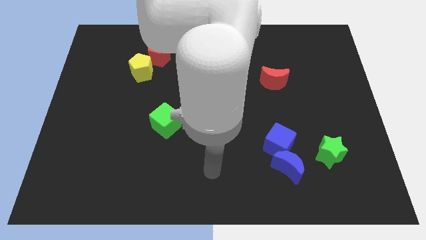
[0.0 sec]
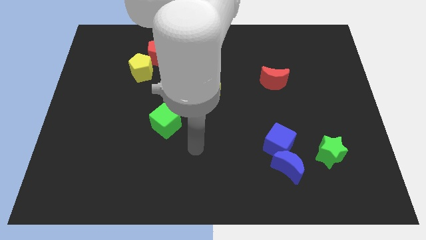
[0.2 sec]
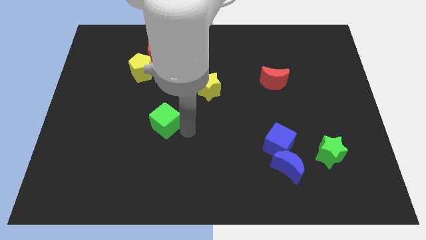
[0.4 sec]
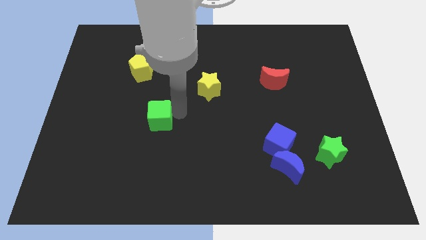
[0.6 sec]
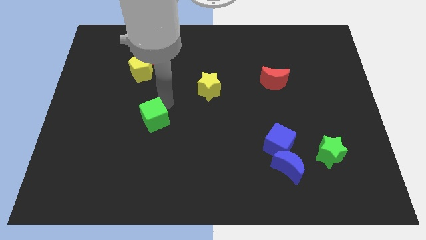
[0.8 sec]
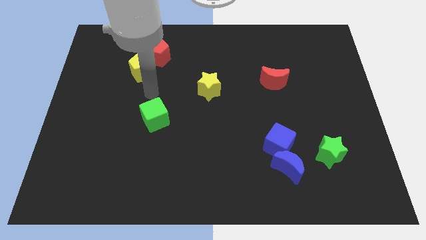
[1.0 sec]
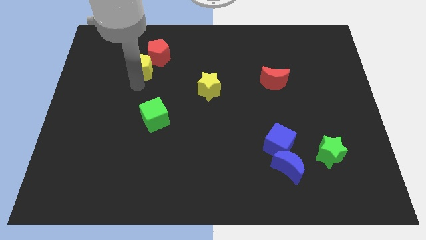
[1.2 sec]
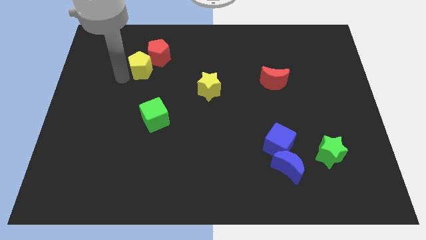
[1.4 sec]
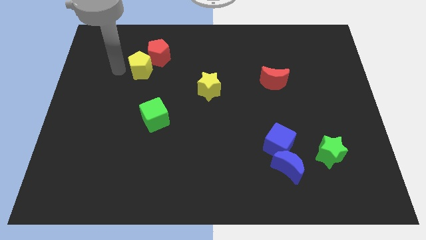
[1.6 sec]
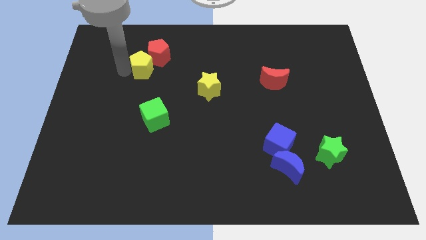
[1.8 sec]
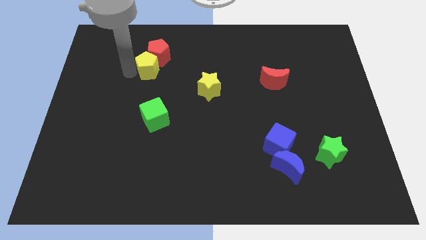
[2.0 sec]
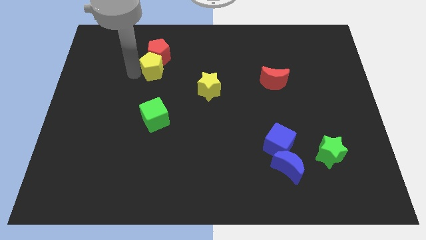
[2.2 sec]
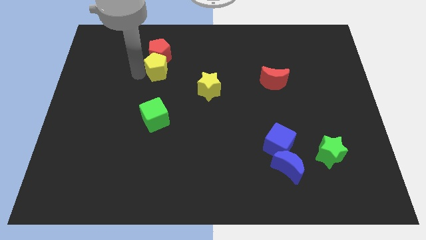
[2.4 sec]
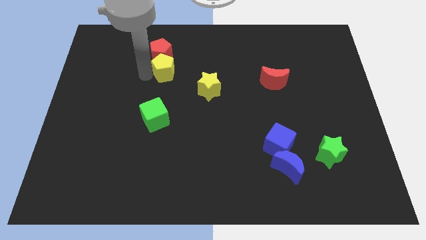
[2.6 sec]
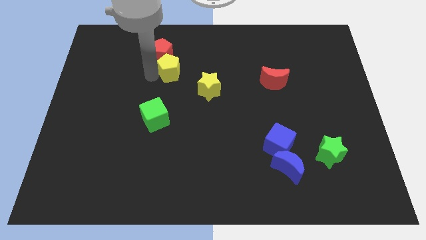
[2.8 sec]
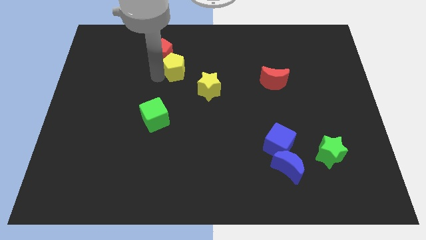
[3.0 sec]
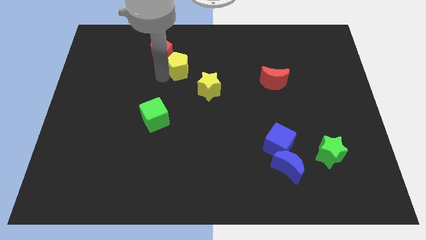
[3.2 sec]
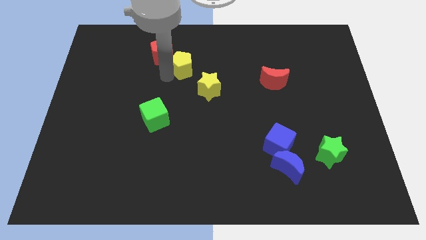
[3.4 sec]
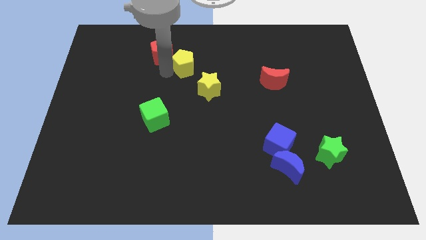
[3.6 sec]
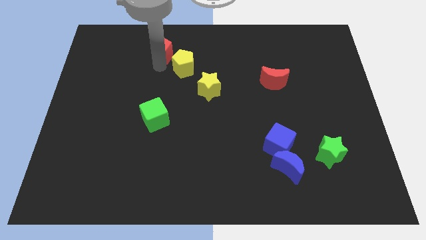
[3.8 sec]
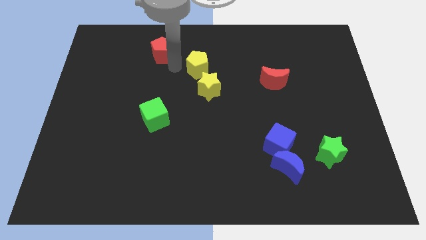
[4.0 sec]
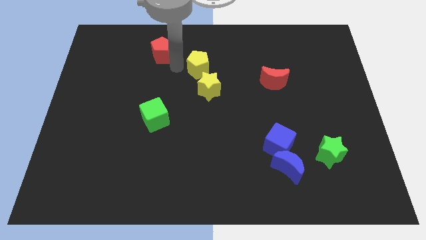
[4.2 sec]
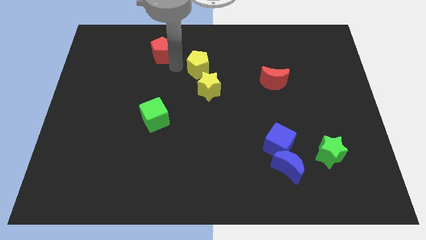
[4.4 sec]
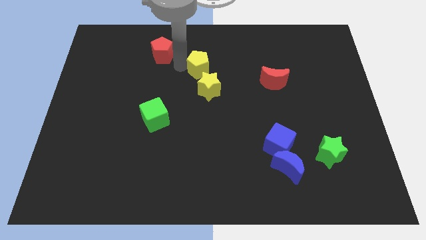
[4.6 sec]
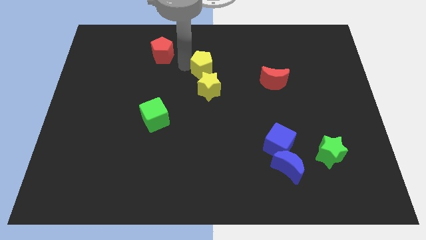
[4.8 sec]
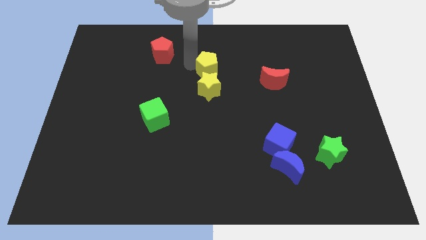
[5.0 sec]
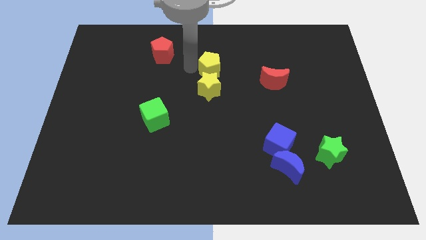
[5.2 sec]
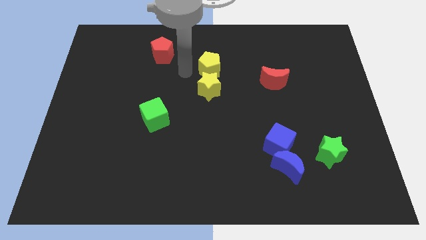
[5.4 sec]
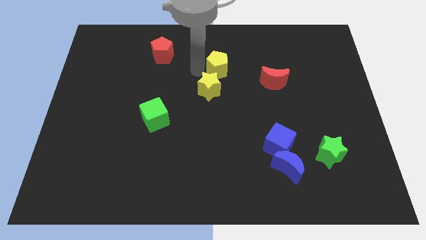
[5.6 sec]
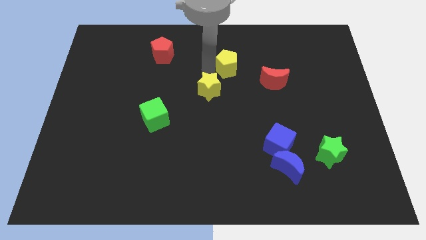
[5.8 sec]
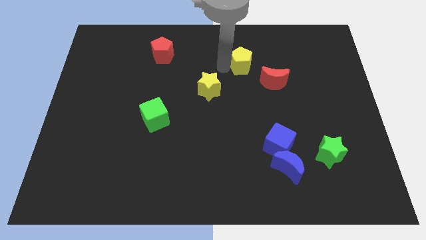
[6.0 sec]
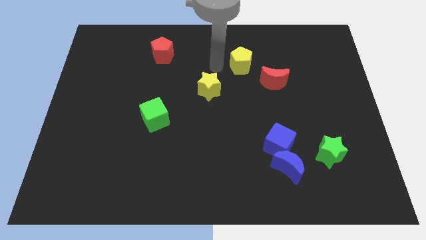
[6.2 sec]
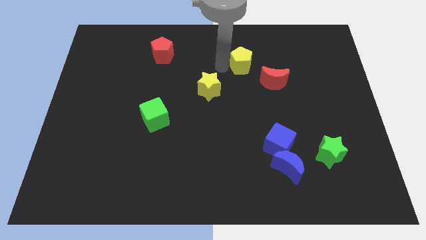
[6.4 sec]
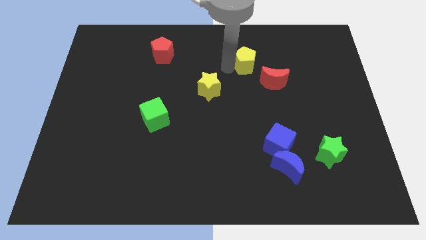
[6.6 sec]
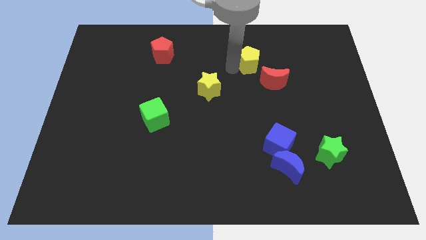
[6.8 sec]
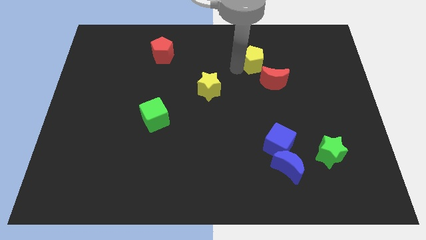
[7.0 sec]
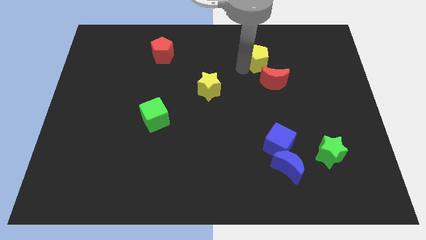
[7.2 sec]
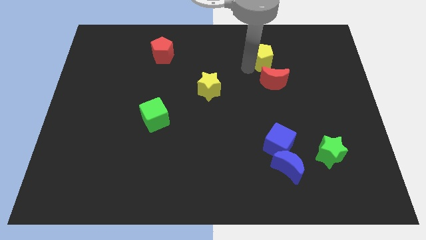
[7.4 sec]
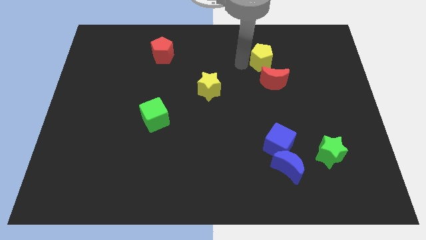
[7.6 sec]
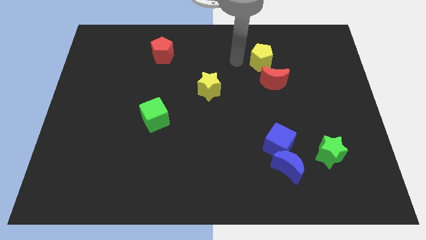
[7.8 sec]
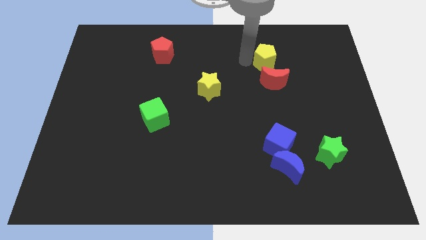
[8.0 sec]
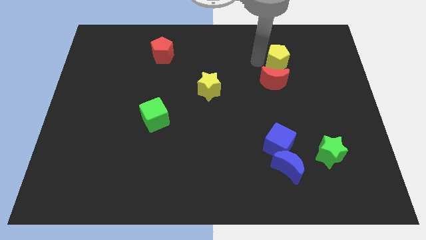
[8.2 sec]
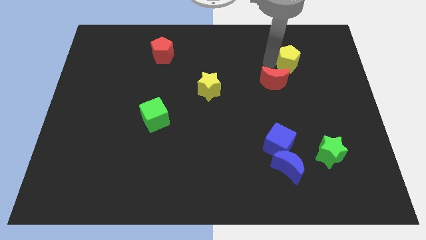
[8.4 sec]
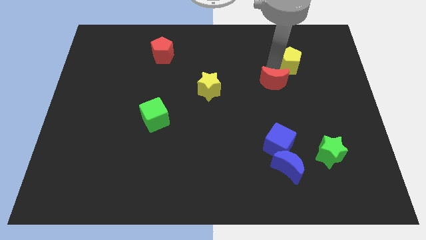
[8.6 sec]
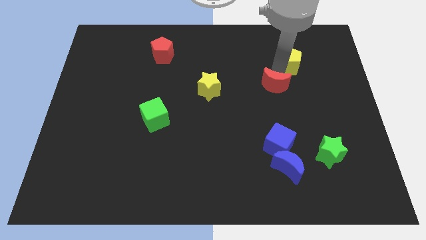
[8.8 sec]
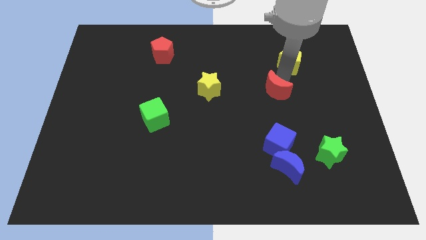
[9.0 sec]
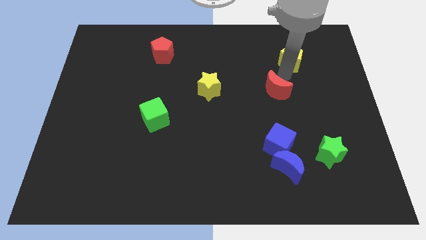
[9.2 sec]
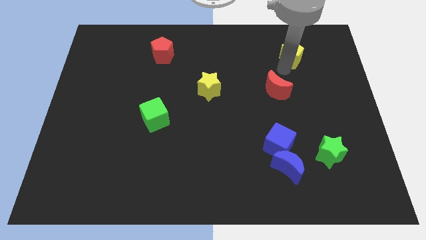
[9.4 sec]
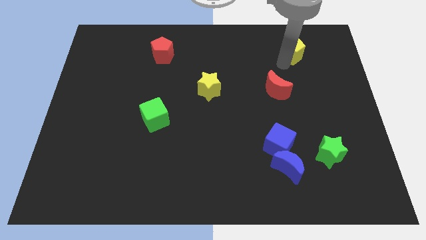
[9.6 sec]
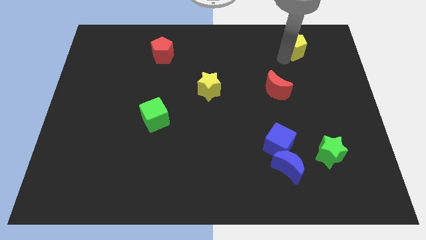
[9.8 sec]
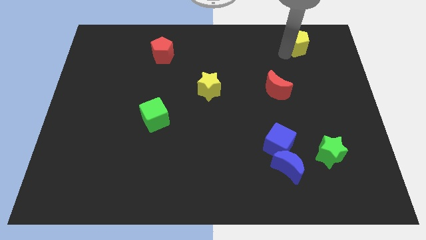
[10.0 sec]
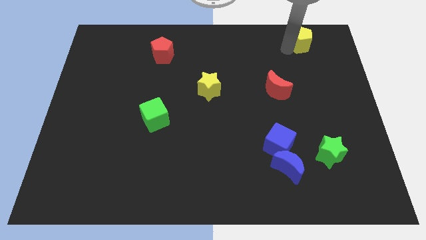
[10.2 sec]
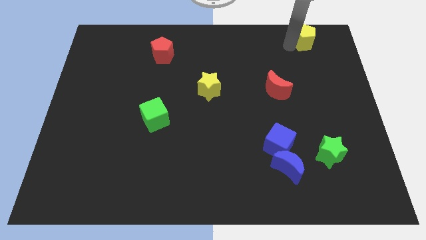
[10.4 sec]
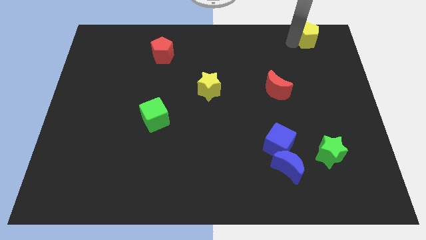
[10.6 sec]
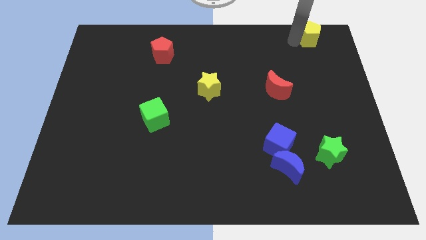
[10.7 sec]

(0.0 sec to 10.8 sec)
put the yellow pentagon to the upper right corner
